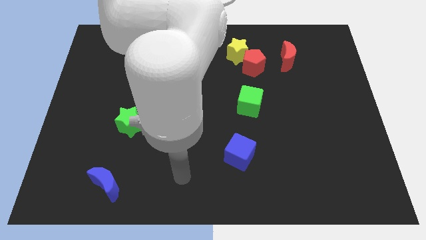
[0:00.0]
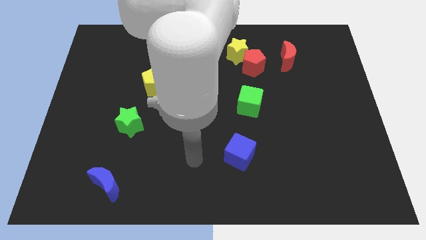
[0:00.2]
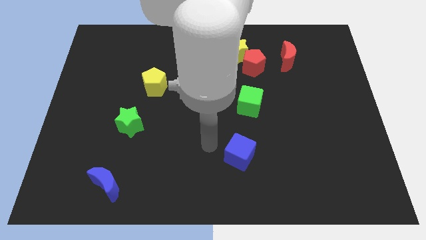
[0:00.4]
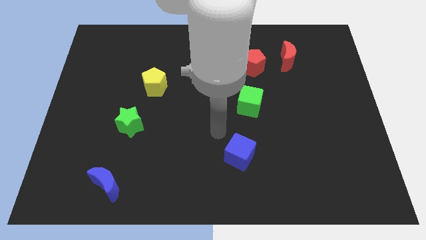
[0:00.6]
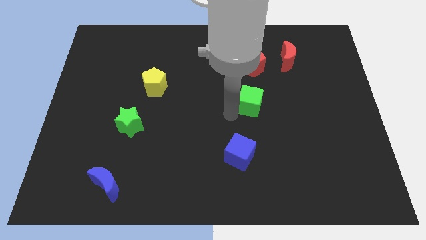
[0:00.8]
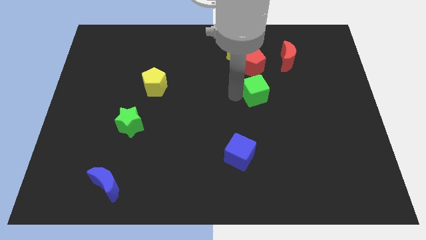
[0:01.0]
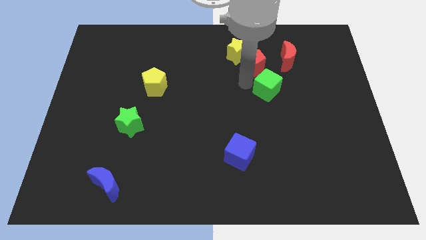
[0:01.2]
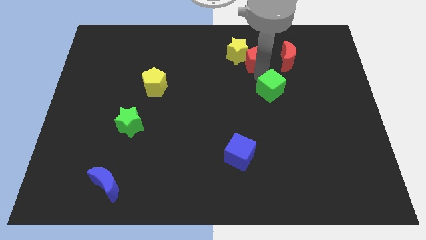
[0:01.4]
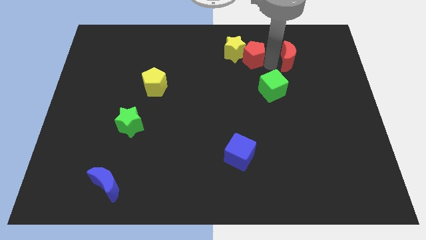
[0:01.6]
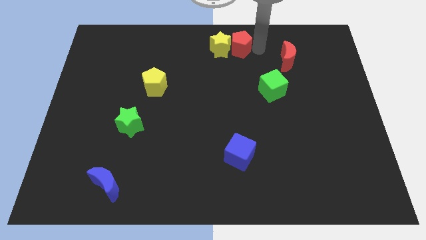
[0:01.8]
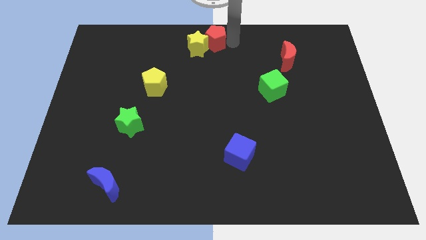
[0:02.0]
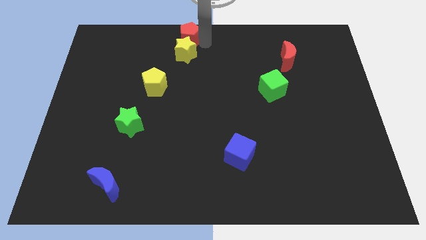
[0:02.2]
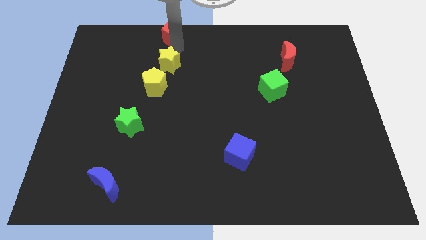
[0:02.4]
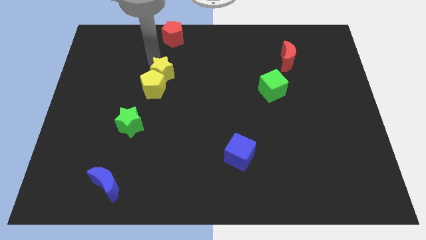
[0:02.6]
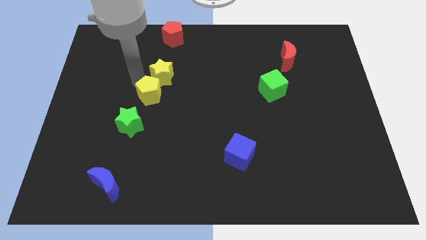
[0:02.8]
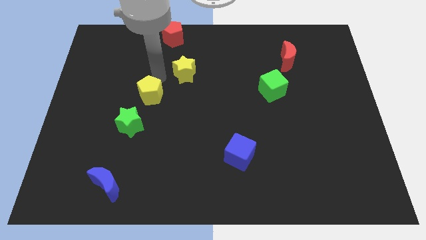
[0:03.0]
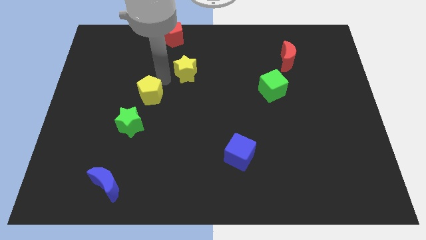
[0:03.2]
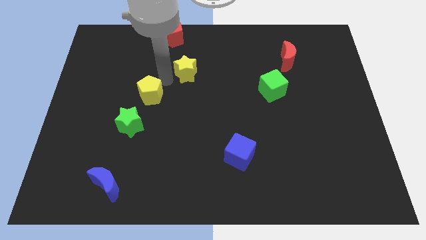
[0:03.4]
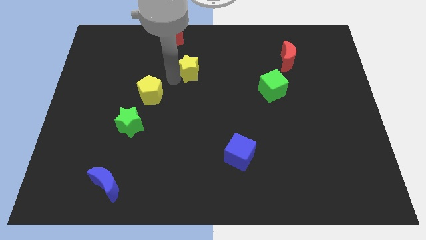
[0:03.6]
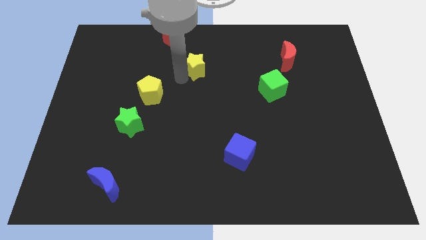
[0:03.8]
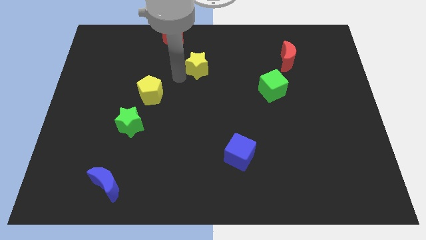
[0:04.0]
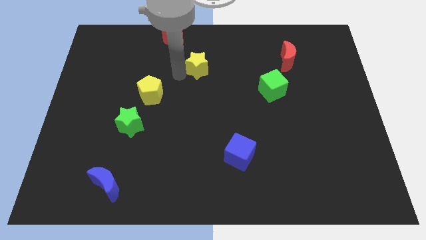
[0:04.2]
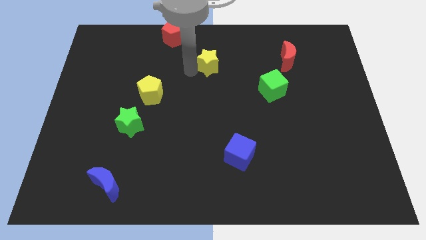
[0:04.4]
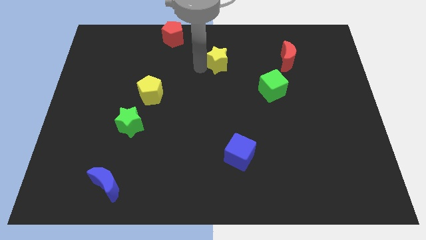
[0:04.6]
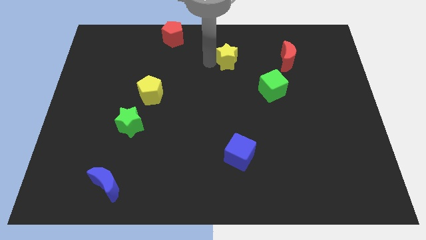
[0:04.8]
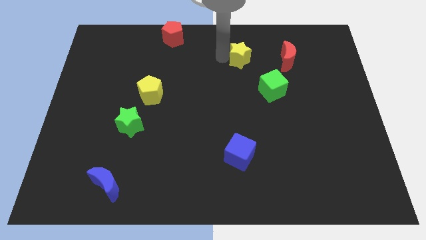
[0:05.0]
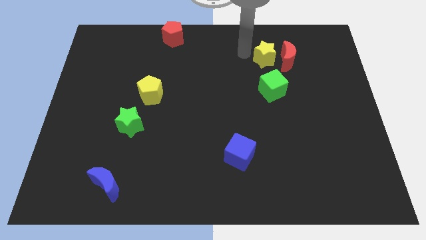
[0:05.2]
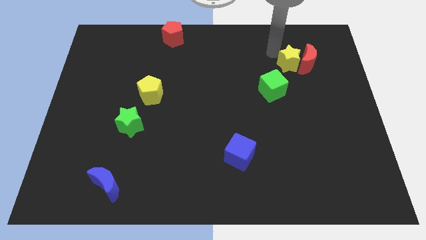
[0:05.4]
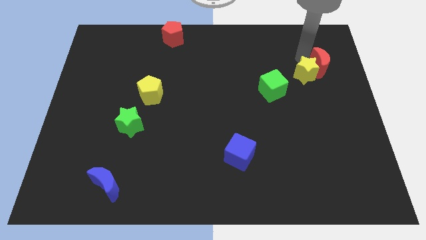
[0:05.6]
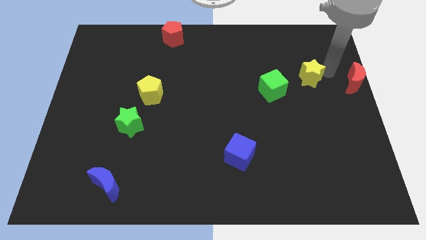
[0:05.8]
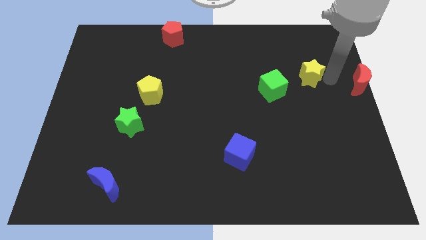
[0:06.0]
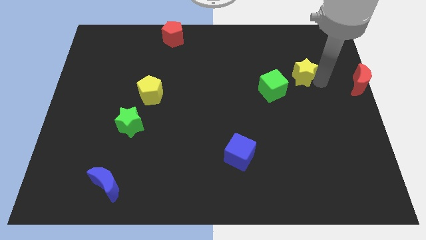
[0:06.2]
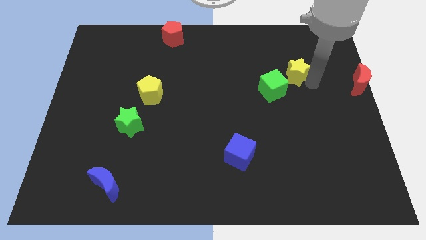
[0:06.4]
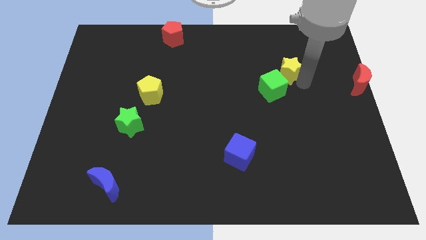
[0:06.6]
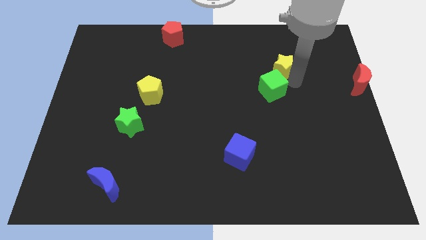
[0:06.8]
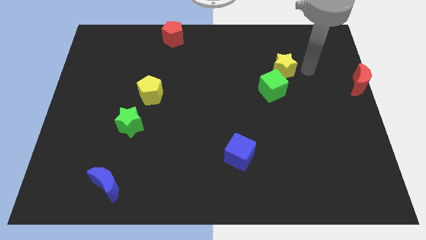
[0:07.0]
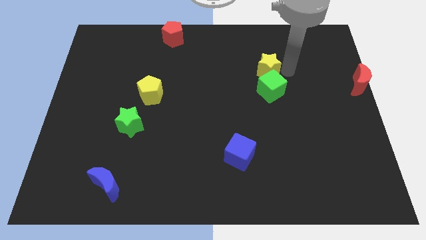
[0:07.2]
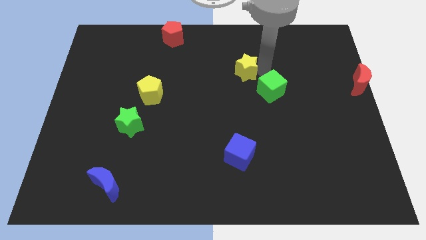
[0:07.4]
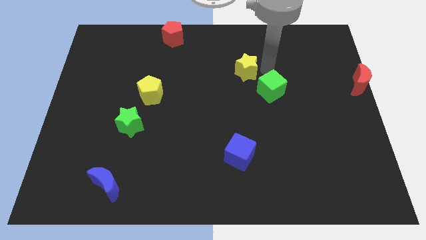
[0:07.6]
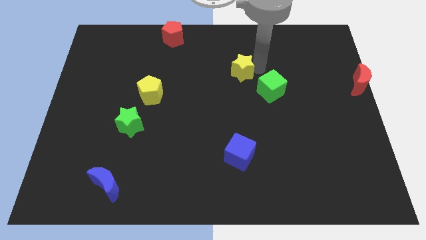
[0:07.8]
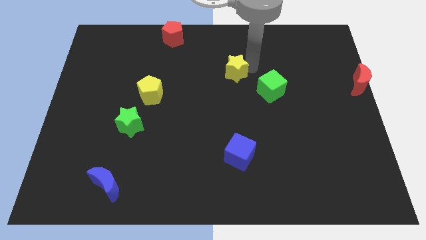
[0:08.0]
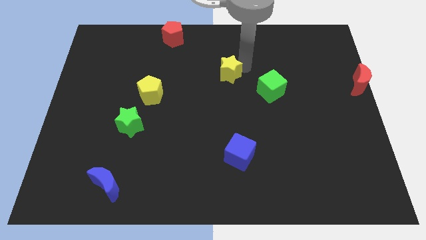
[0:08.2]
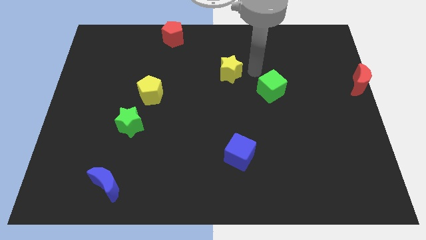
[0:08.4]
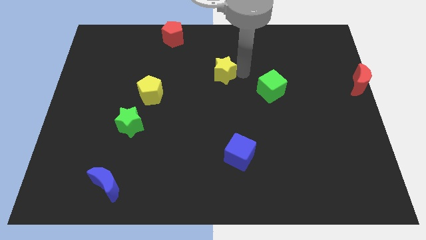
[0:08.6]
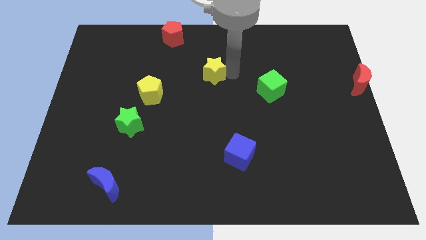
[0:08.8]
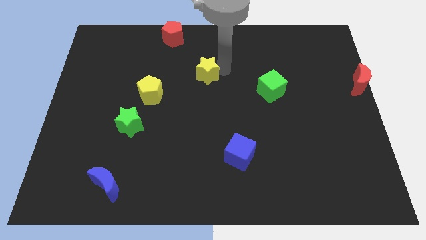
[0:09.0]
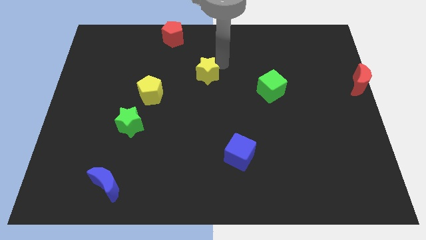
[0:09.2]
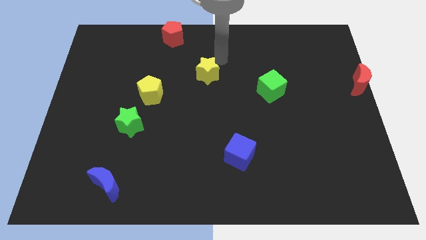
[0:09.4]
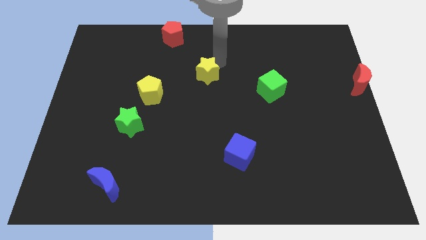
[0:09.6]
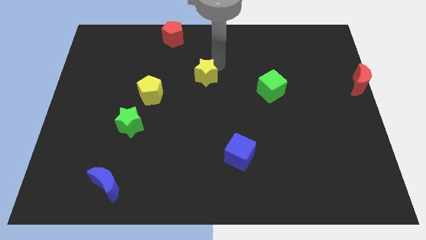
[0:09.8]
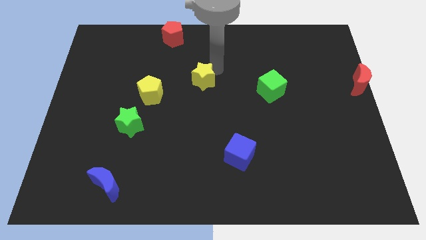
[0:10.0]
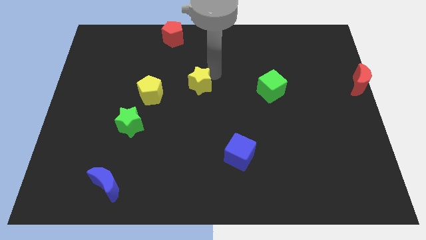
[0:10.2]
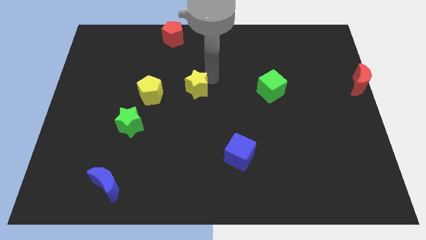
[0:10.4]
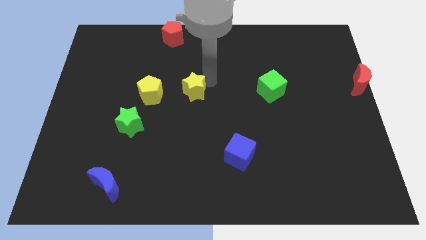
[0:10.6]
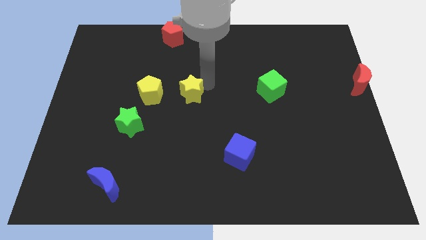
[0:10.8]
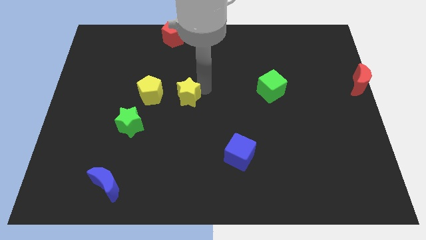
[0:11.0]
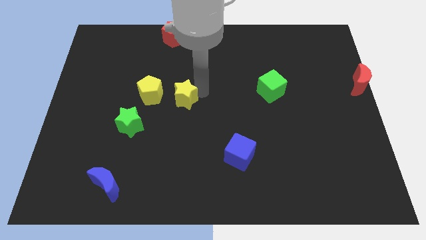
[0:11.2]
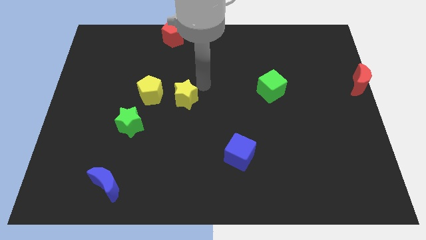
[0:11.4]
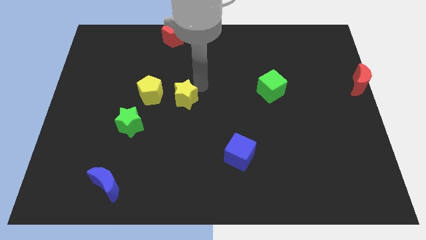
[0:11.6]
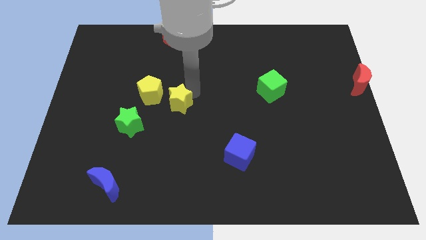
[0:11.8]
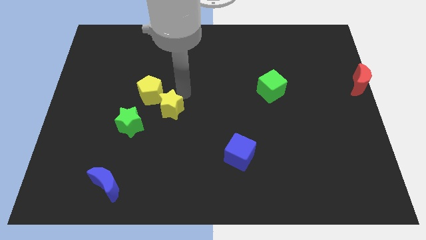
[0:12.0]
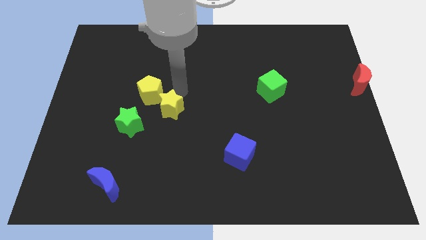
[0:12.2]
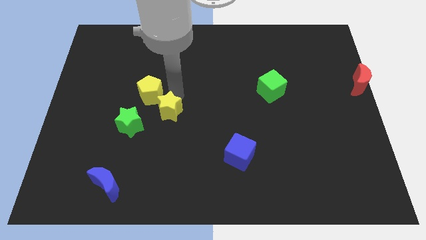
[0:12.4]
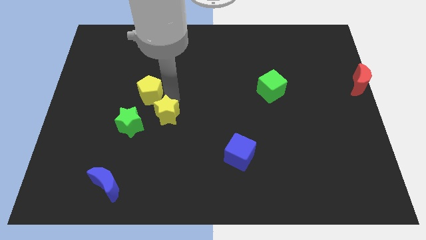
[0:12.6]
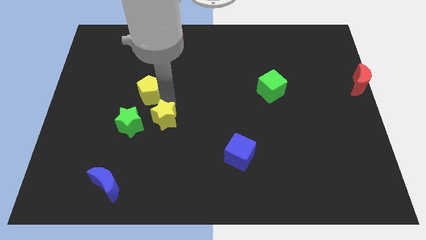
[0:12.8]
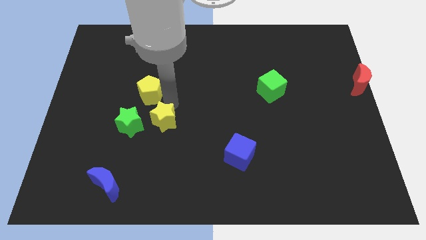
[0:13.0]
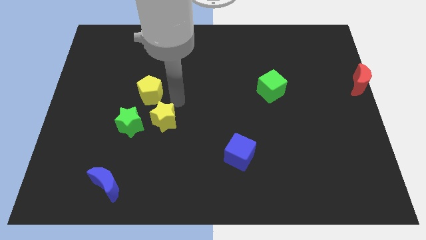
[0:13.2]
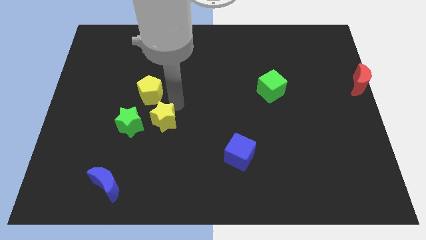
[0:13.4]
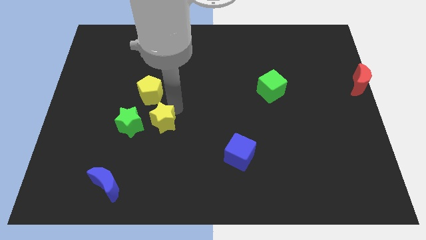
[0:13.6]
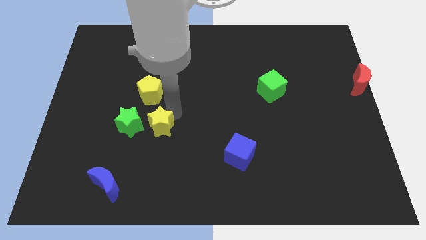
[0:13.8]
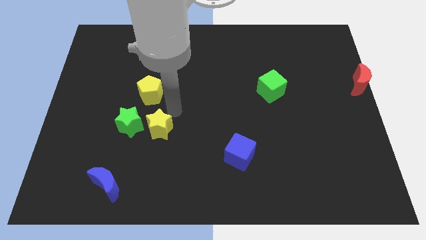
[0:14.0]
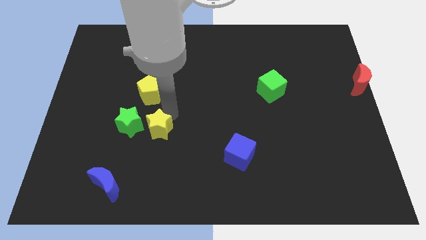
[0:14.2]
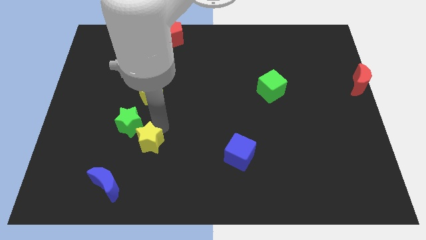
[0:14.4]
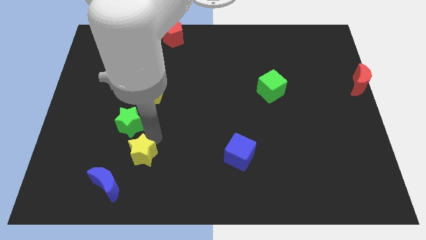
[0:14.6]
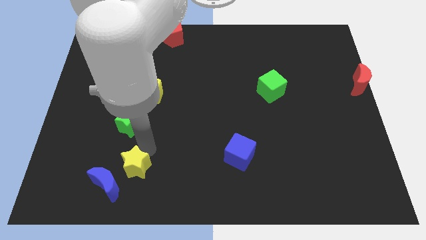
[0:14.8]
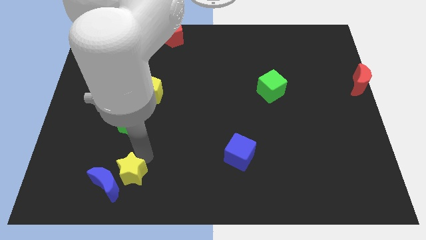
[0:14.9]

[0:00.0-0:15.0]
put the yellow star to the blue moon

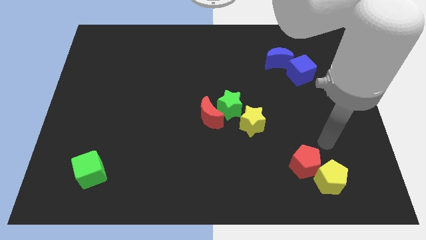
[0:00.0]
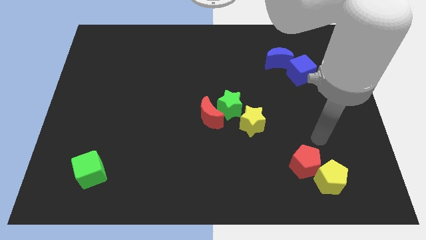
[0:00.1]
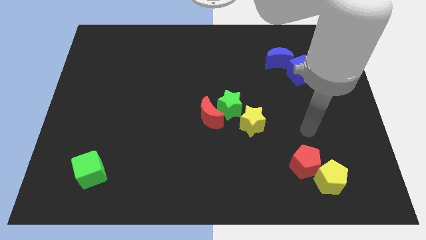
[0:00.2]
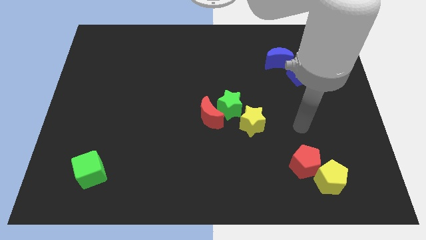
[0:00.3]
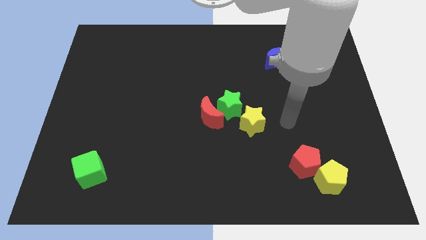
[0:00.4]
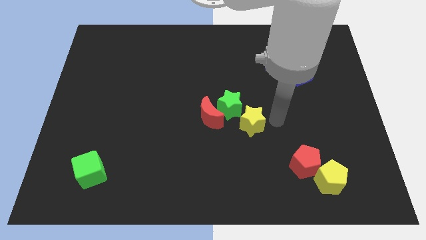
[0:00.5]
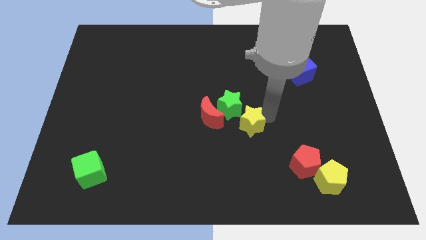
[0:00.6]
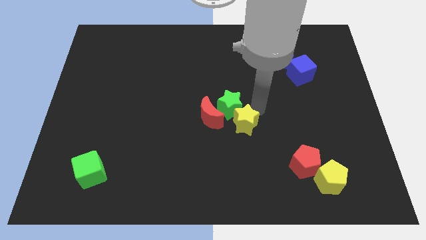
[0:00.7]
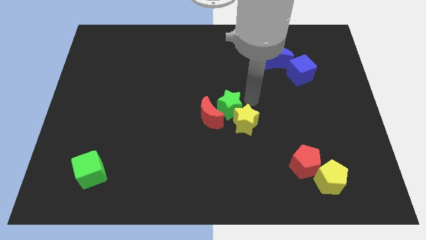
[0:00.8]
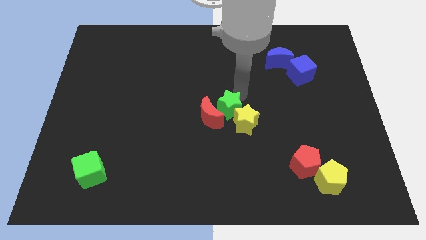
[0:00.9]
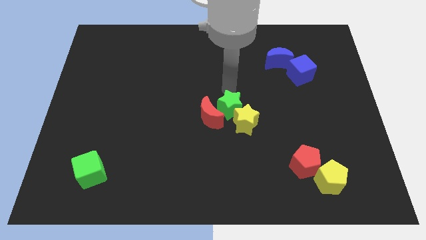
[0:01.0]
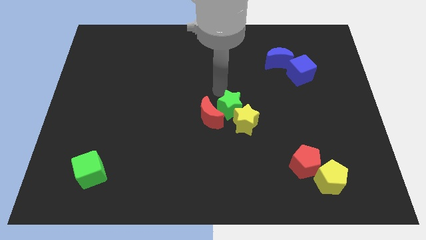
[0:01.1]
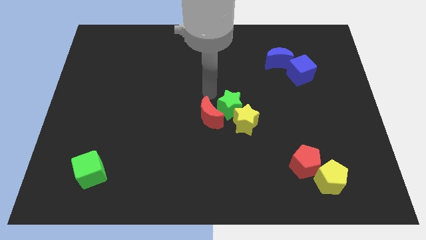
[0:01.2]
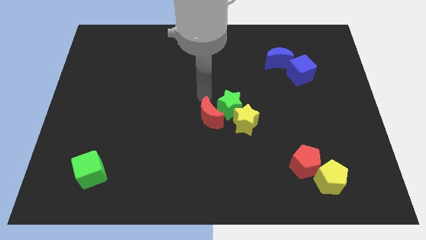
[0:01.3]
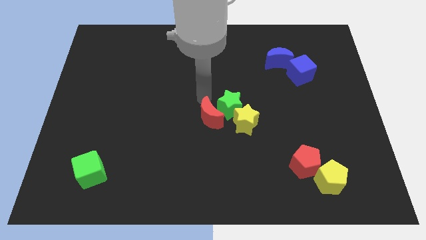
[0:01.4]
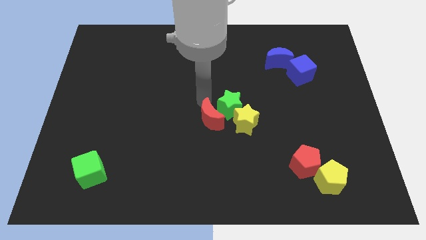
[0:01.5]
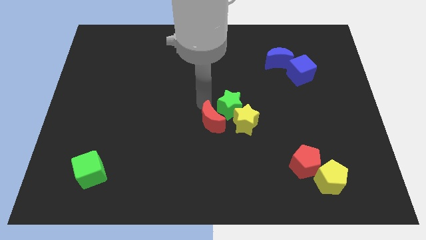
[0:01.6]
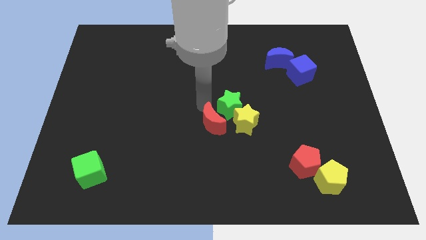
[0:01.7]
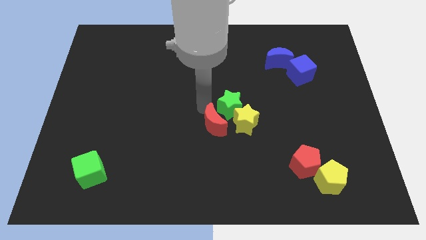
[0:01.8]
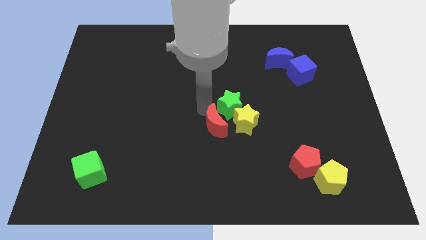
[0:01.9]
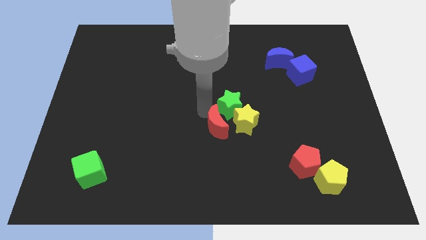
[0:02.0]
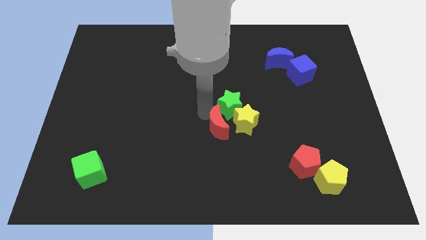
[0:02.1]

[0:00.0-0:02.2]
put the red moon next to the yellow star
